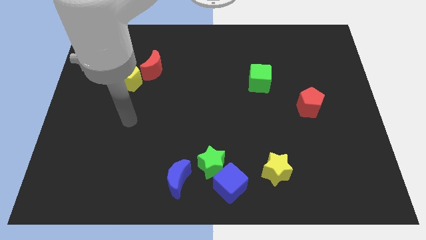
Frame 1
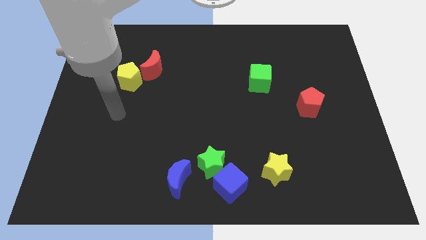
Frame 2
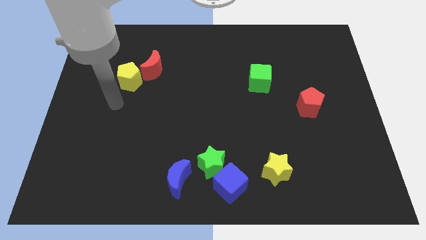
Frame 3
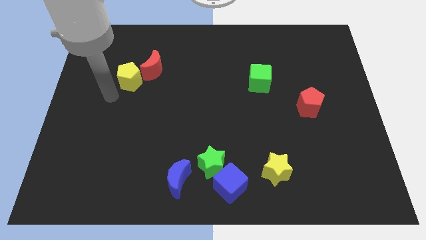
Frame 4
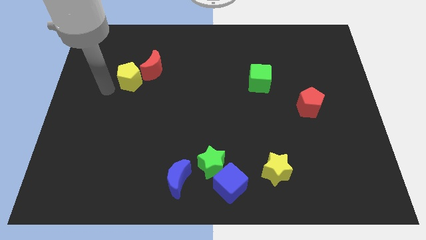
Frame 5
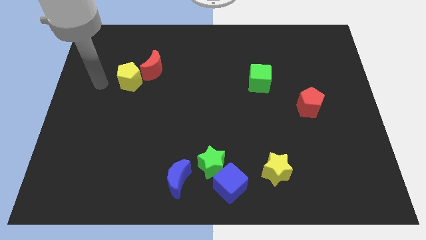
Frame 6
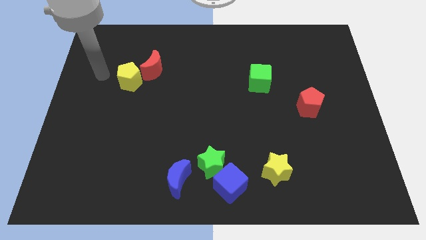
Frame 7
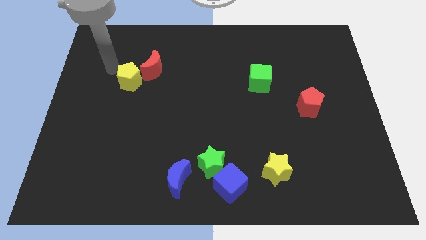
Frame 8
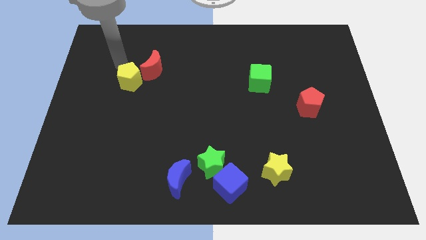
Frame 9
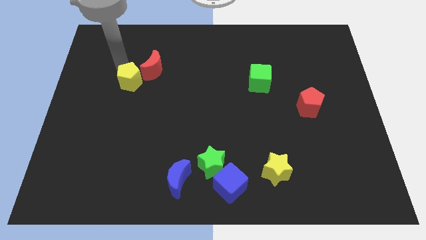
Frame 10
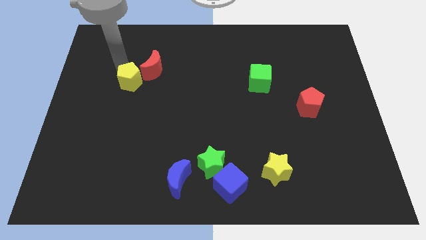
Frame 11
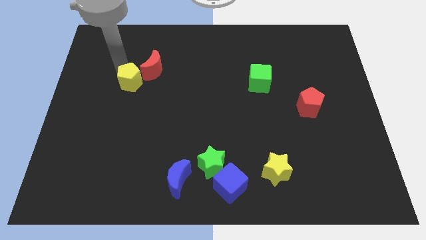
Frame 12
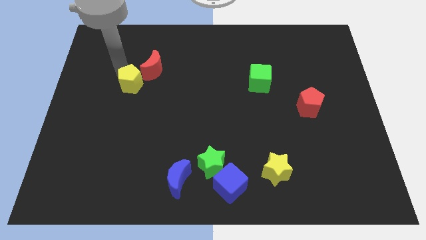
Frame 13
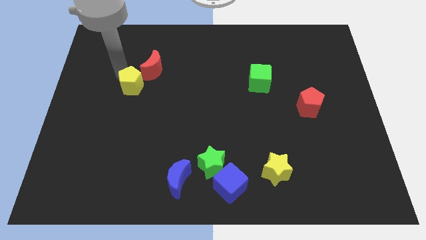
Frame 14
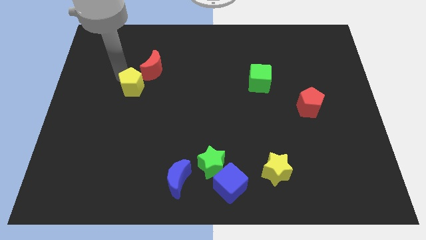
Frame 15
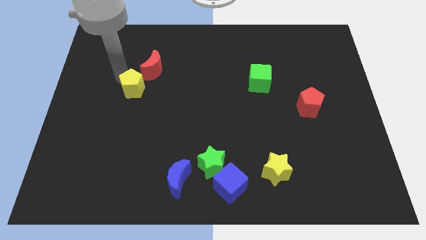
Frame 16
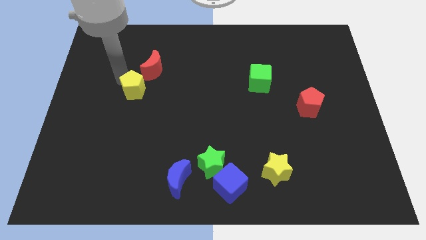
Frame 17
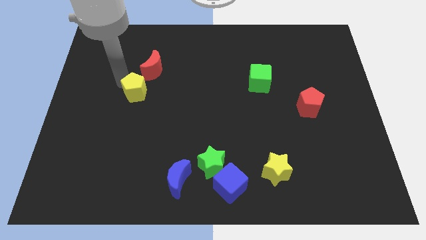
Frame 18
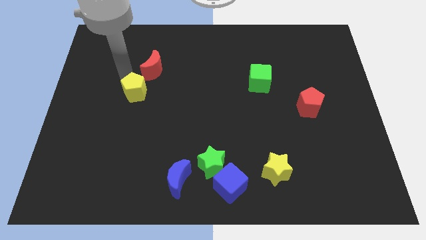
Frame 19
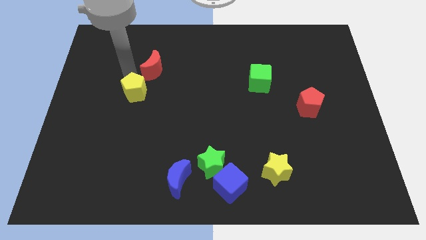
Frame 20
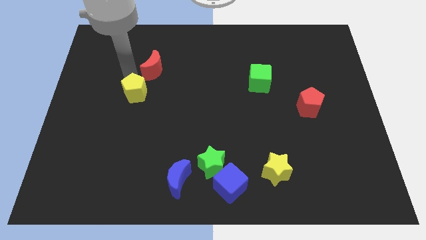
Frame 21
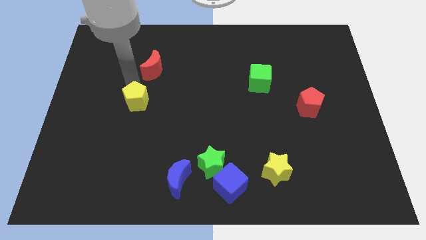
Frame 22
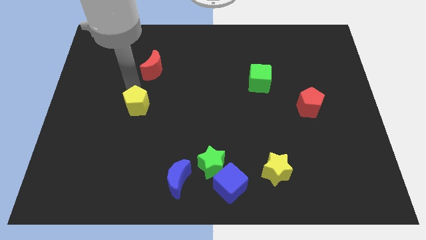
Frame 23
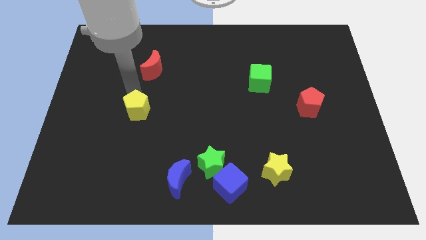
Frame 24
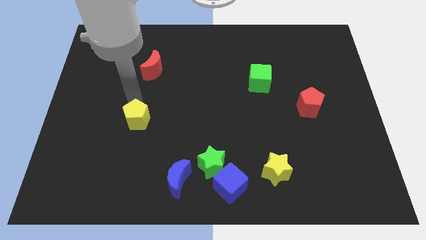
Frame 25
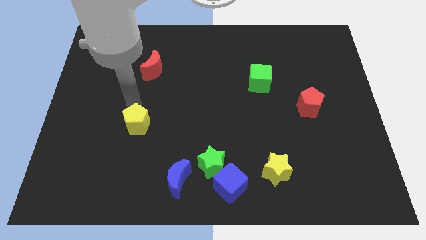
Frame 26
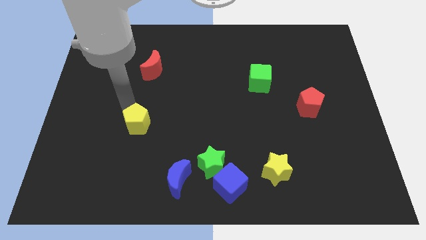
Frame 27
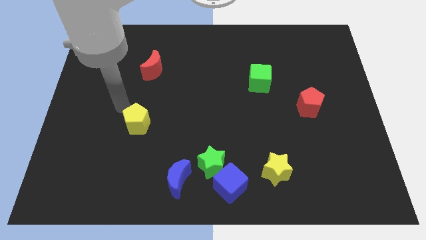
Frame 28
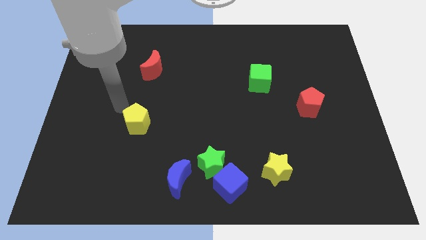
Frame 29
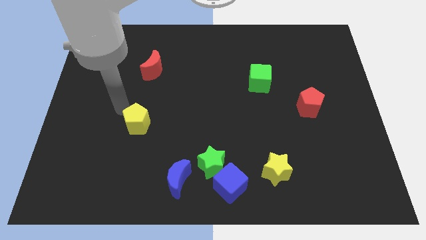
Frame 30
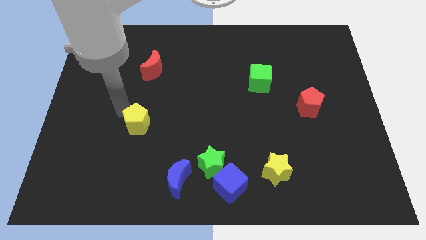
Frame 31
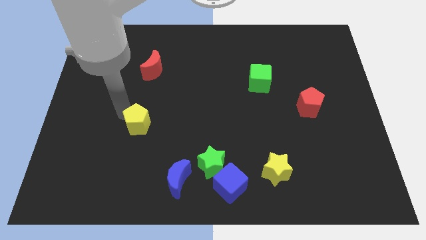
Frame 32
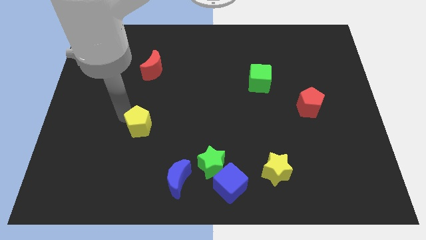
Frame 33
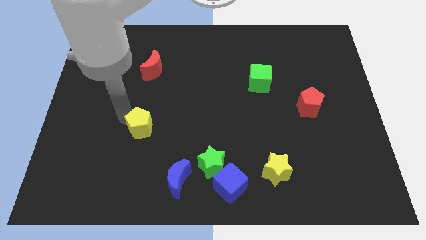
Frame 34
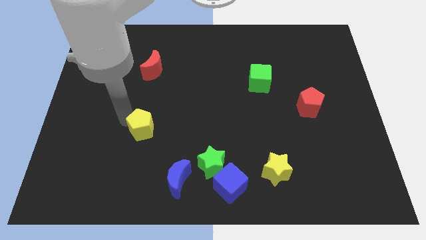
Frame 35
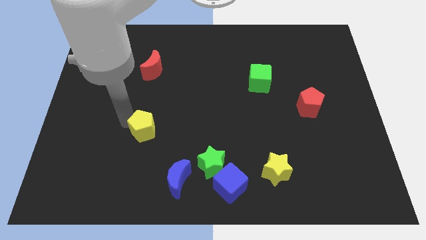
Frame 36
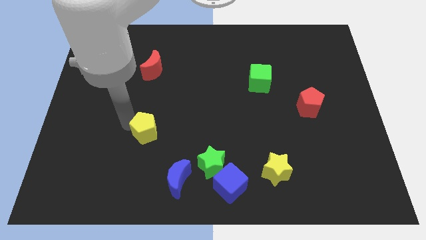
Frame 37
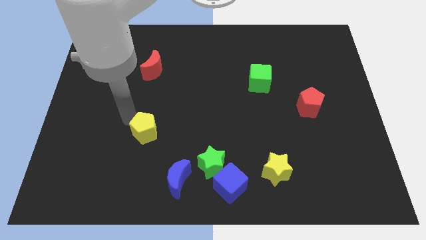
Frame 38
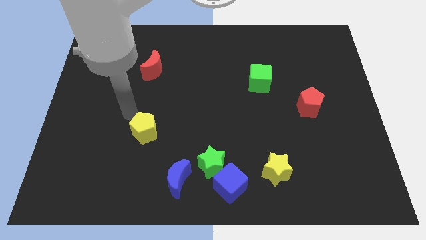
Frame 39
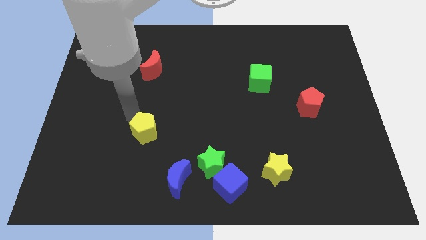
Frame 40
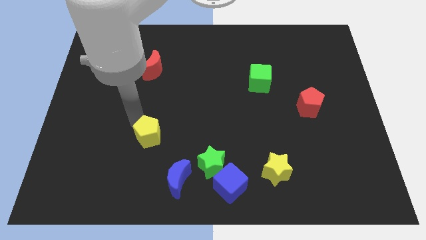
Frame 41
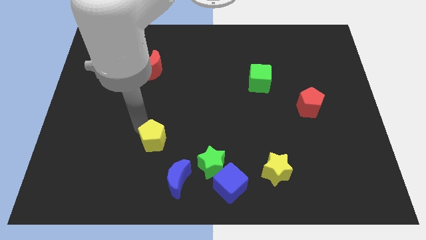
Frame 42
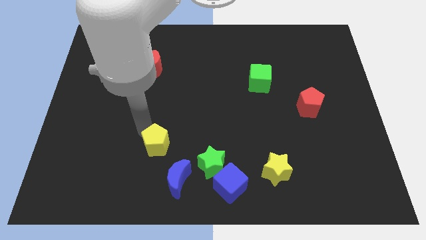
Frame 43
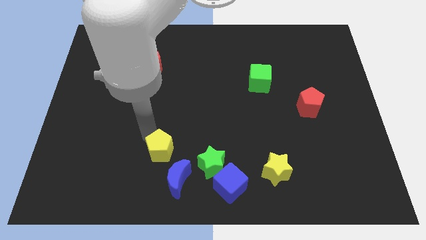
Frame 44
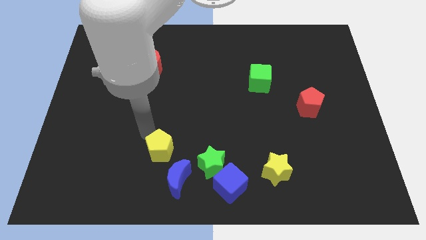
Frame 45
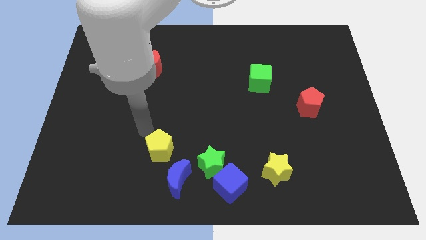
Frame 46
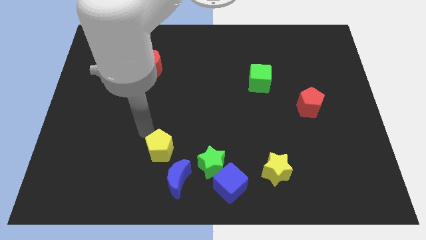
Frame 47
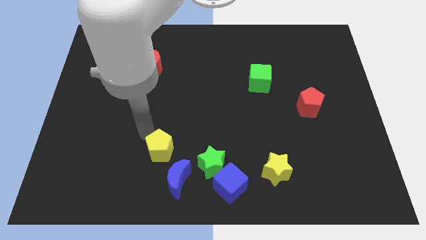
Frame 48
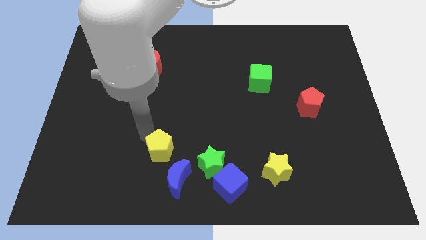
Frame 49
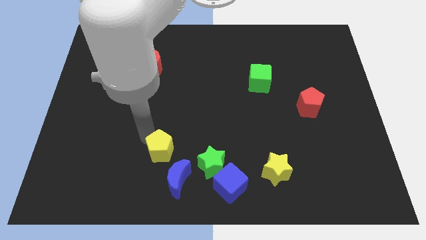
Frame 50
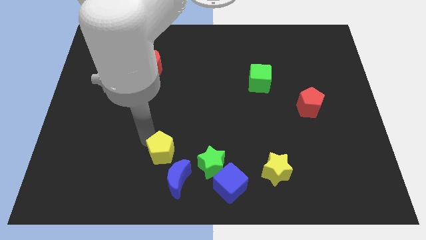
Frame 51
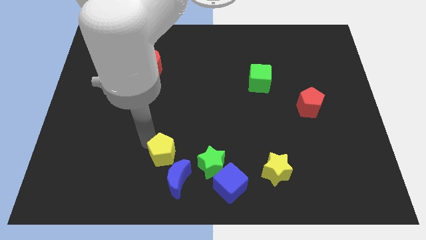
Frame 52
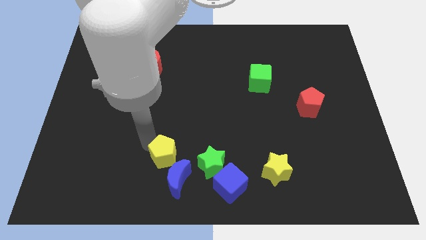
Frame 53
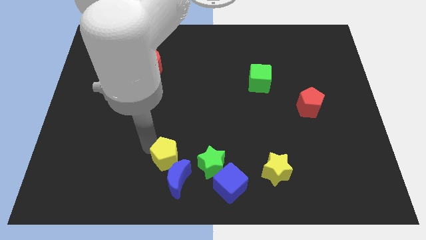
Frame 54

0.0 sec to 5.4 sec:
push the yellow pentagon close to the blue moon

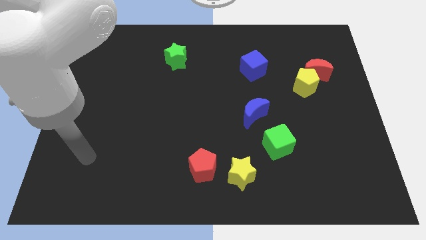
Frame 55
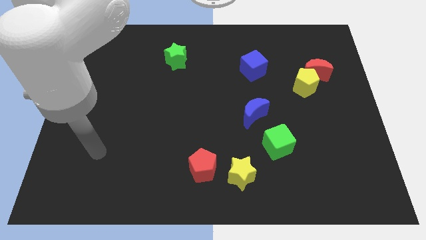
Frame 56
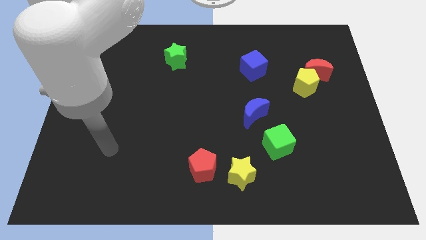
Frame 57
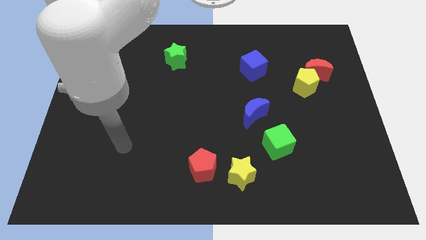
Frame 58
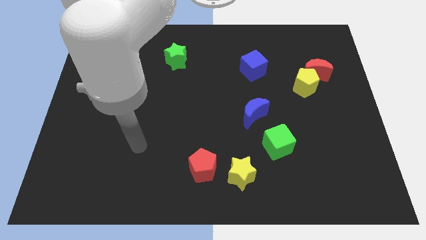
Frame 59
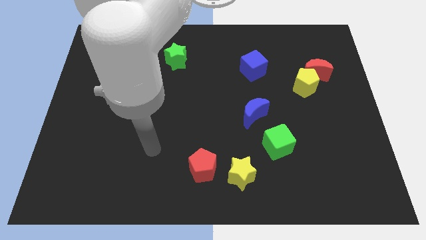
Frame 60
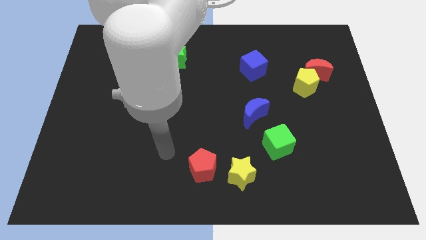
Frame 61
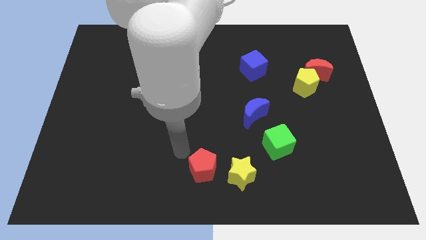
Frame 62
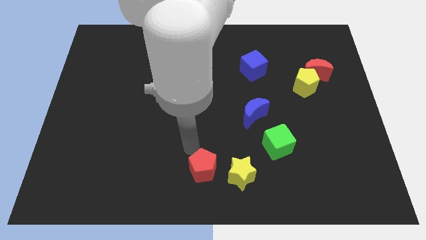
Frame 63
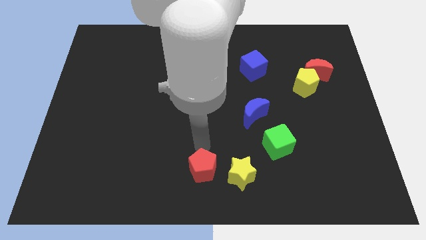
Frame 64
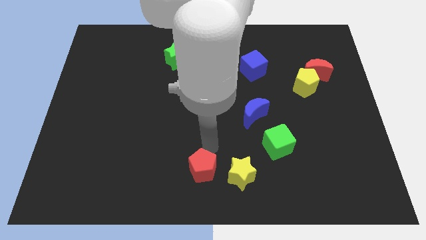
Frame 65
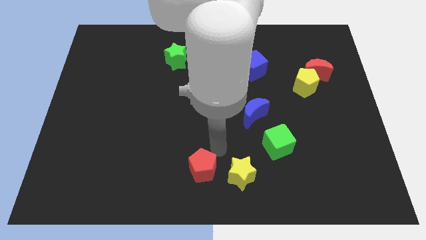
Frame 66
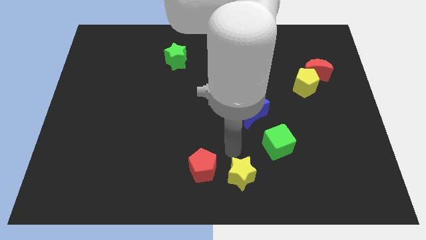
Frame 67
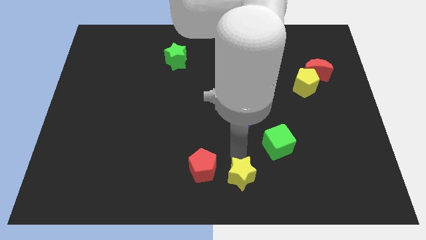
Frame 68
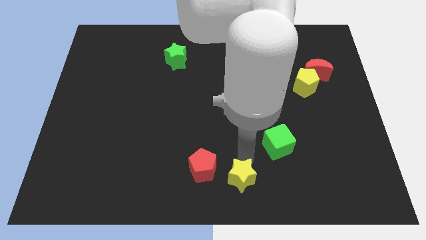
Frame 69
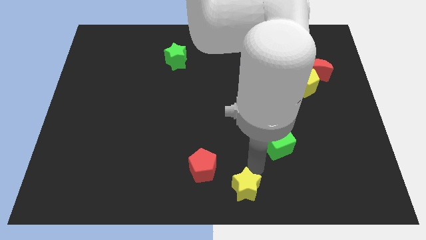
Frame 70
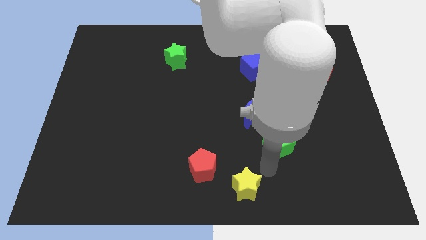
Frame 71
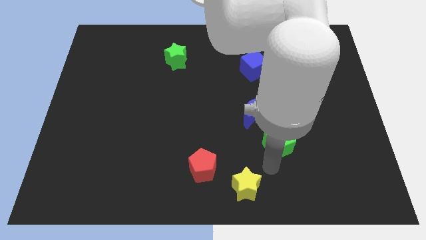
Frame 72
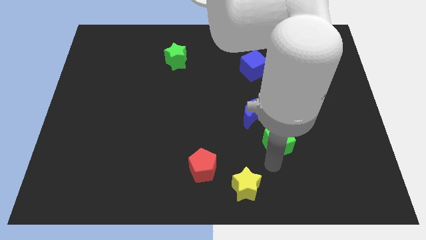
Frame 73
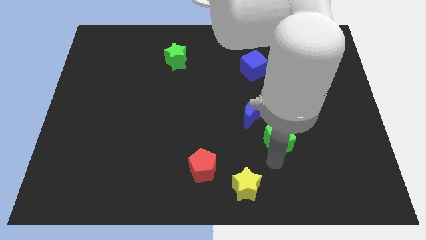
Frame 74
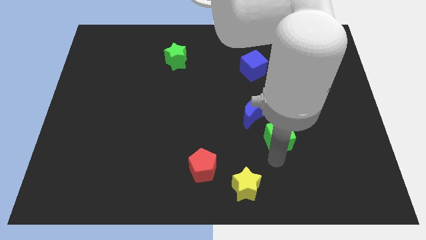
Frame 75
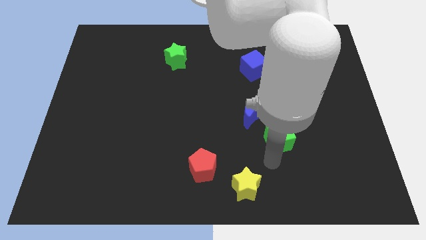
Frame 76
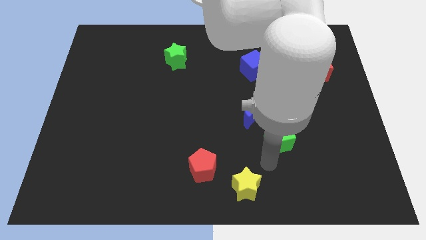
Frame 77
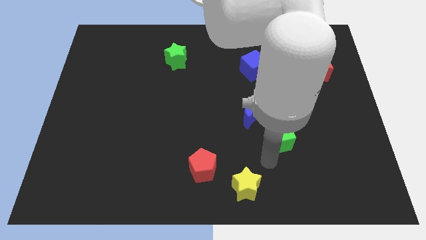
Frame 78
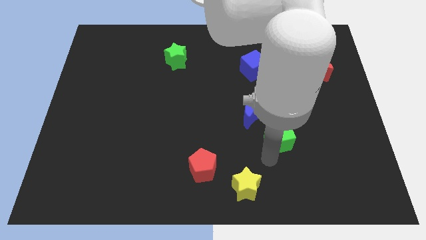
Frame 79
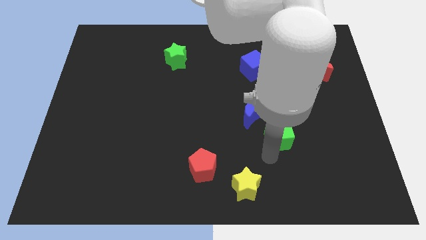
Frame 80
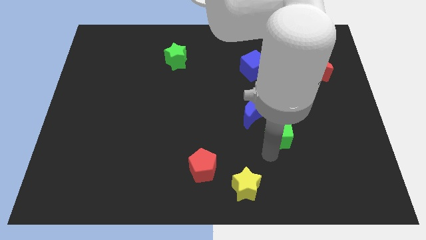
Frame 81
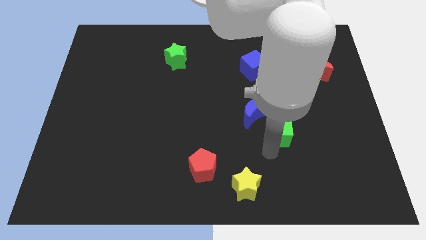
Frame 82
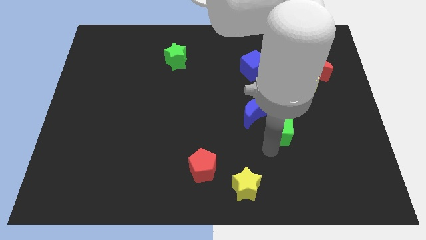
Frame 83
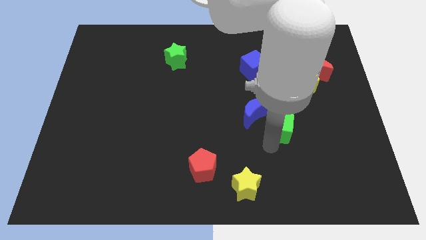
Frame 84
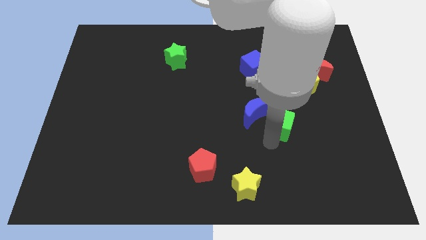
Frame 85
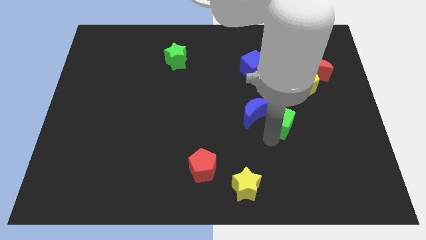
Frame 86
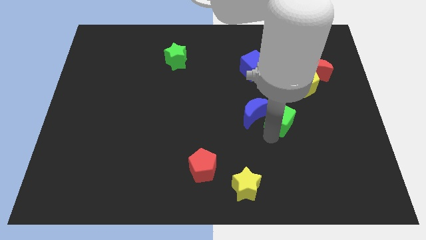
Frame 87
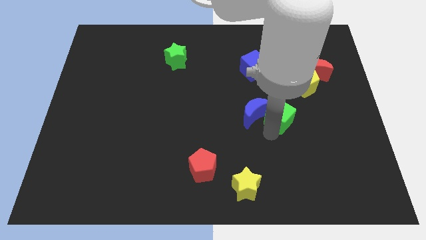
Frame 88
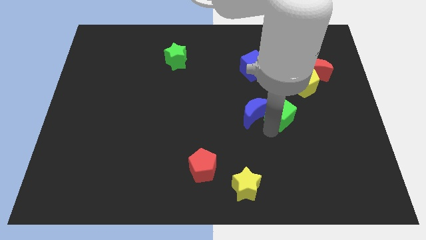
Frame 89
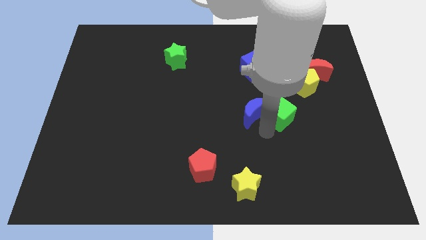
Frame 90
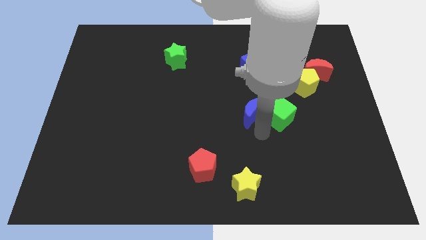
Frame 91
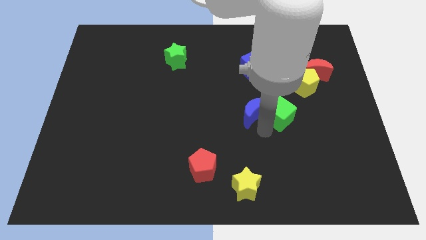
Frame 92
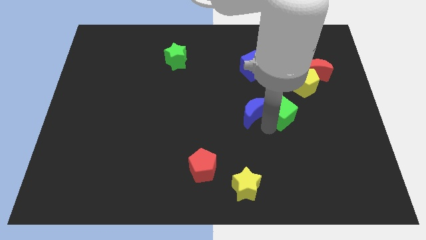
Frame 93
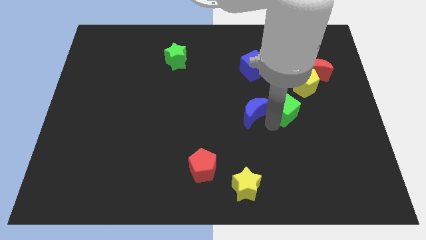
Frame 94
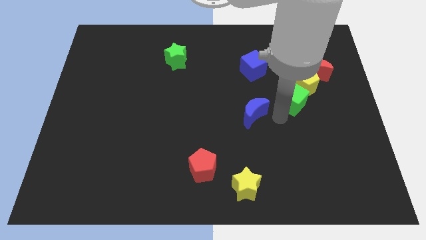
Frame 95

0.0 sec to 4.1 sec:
put the green cube towards the yellow pentagon
